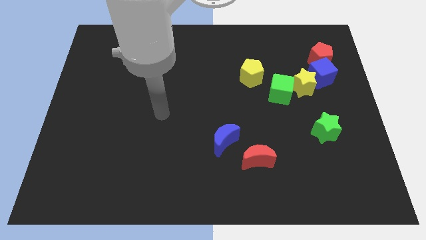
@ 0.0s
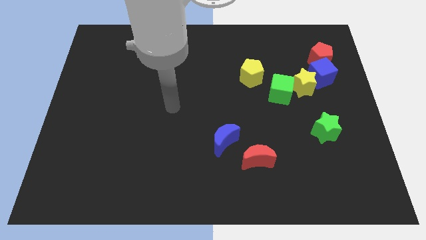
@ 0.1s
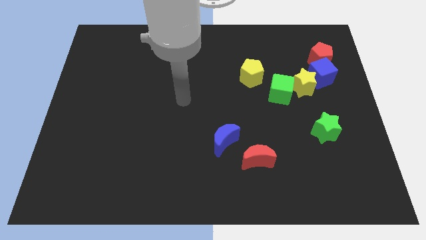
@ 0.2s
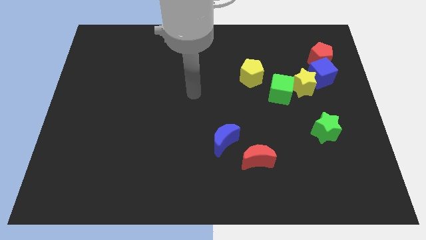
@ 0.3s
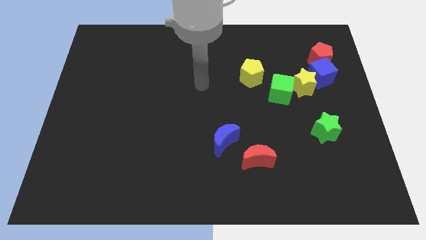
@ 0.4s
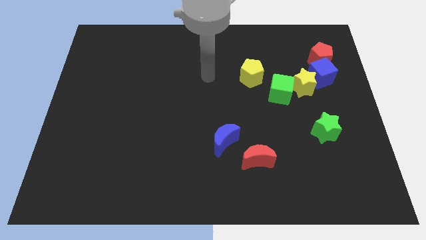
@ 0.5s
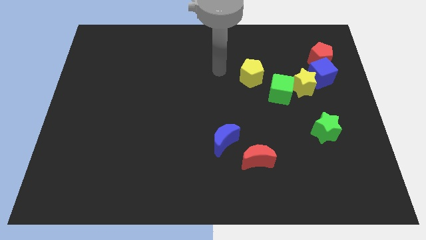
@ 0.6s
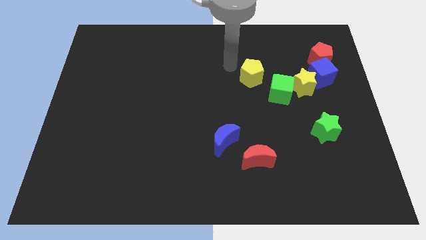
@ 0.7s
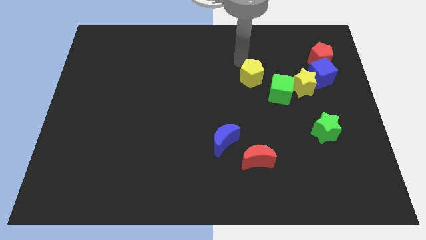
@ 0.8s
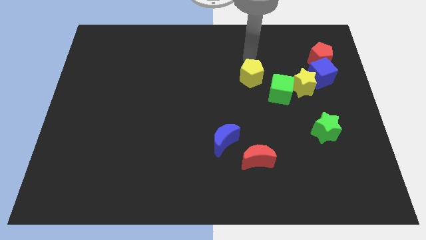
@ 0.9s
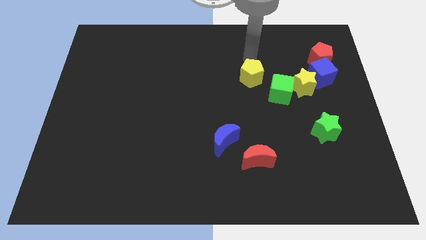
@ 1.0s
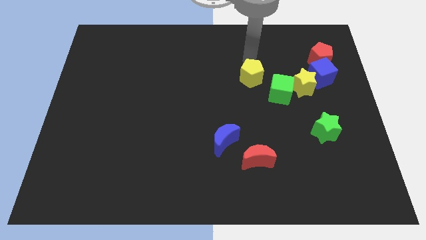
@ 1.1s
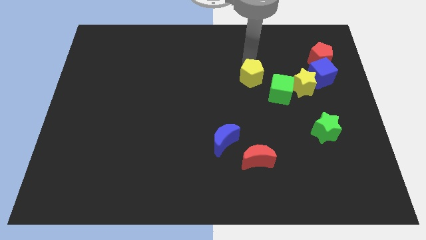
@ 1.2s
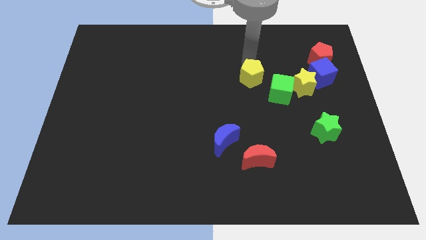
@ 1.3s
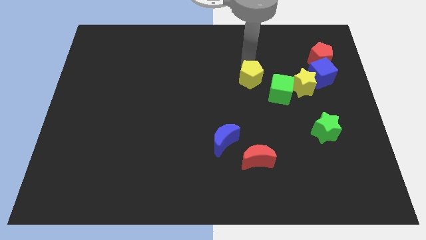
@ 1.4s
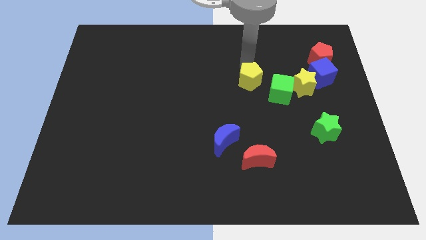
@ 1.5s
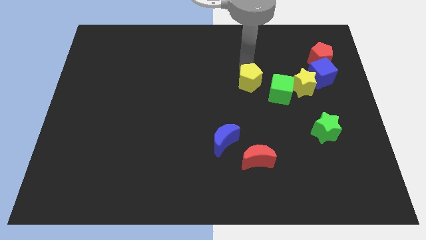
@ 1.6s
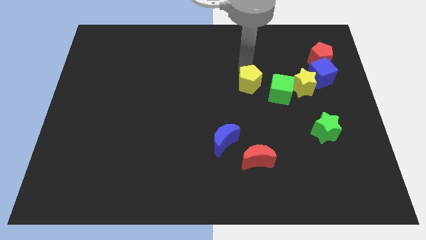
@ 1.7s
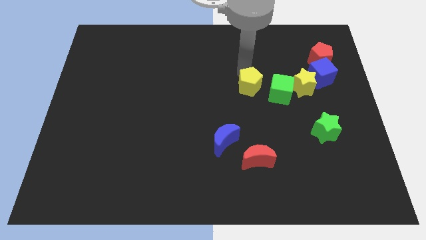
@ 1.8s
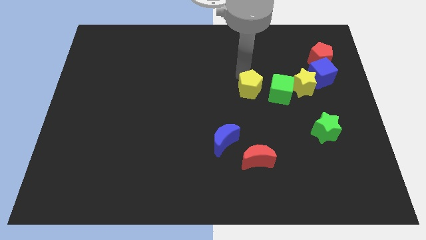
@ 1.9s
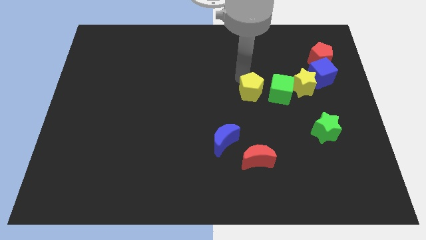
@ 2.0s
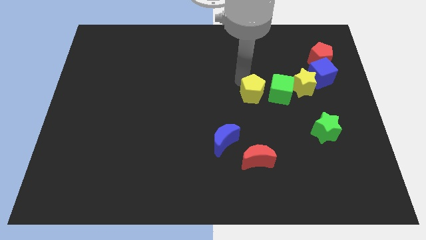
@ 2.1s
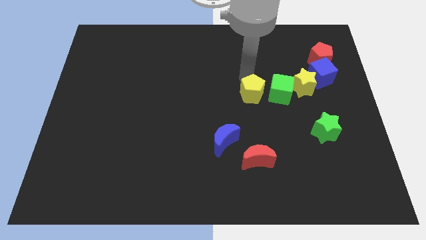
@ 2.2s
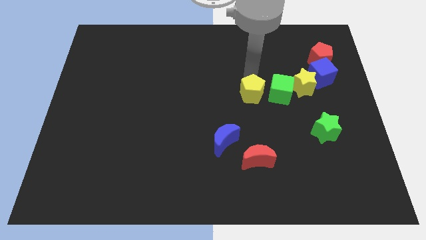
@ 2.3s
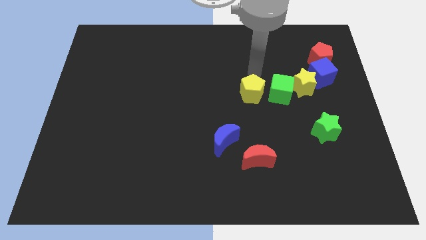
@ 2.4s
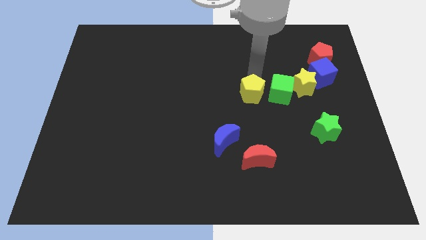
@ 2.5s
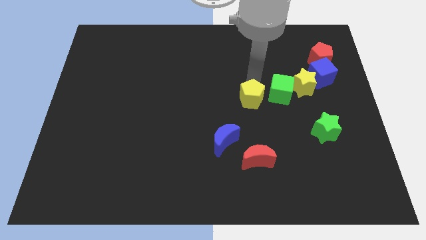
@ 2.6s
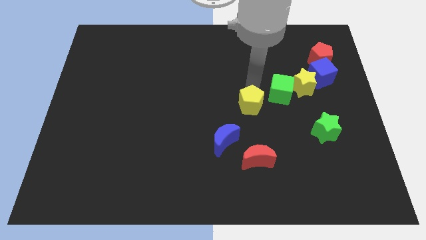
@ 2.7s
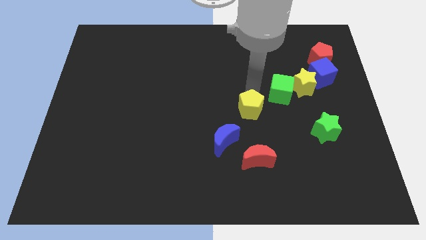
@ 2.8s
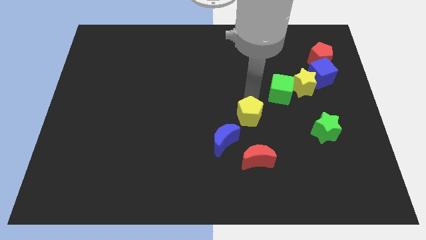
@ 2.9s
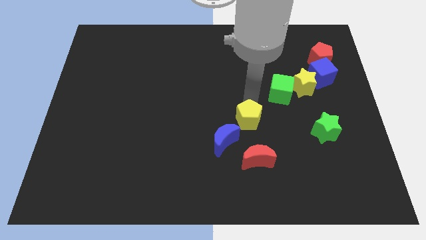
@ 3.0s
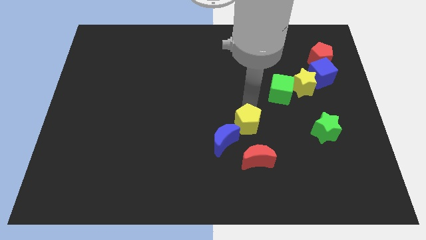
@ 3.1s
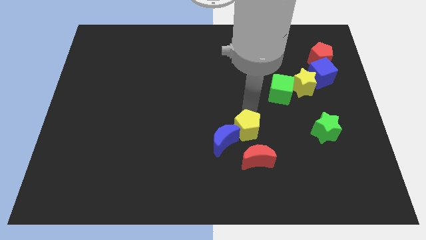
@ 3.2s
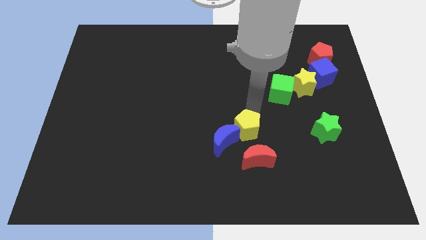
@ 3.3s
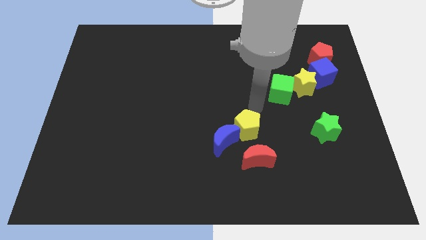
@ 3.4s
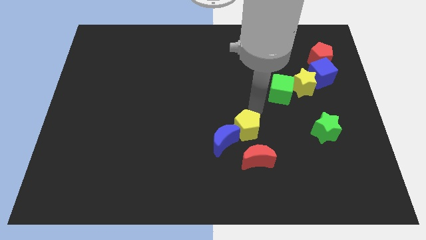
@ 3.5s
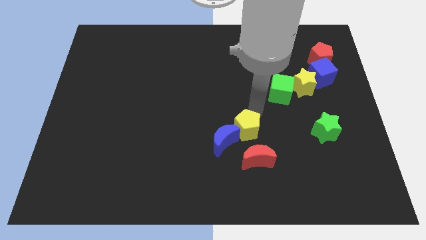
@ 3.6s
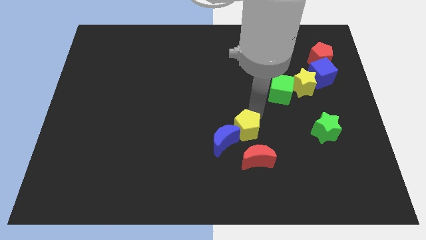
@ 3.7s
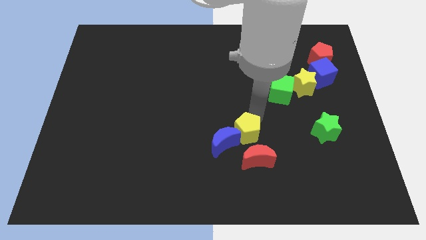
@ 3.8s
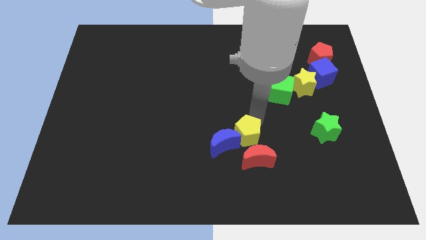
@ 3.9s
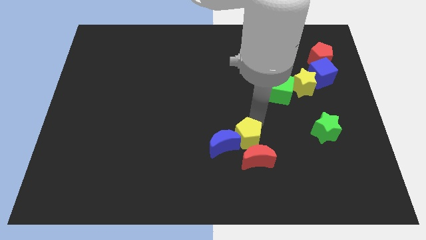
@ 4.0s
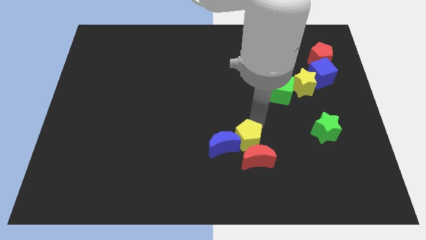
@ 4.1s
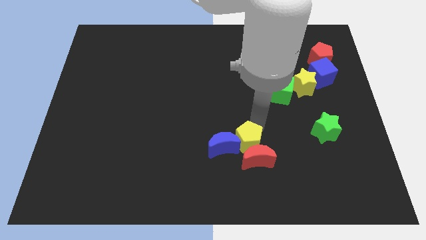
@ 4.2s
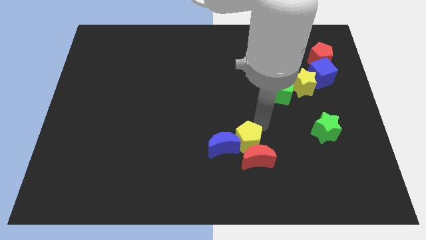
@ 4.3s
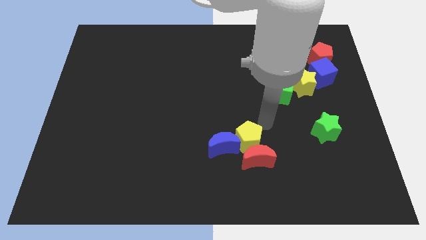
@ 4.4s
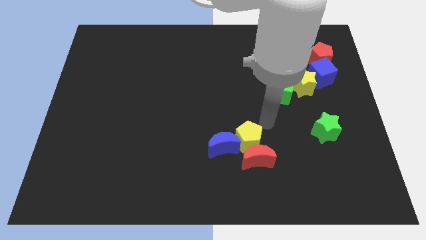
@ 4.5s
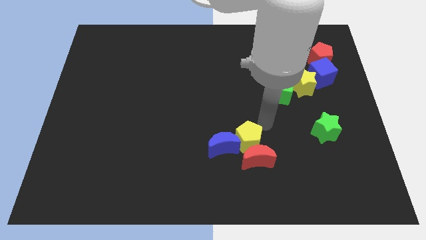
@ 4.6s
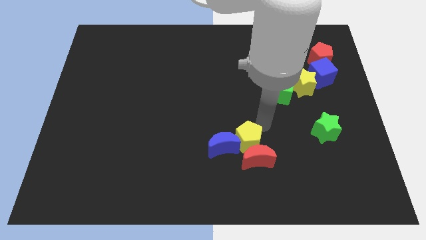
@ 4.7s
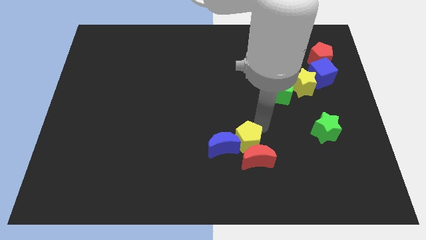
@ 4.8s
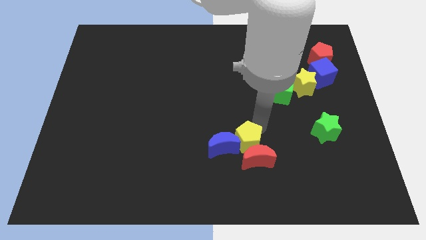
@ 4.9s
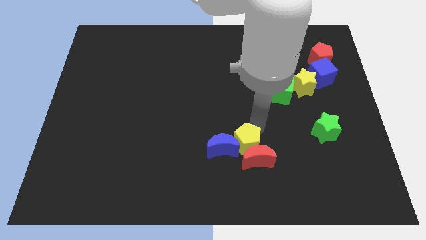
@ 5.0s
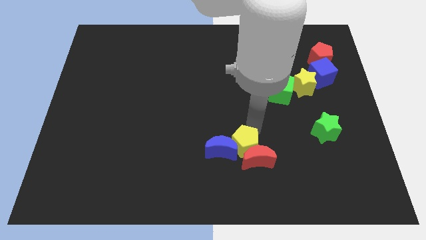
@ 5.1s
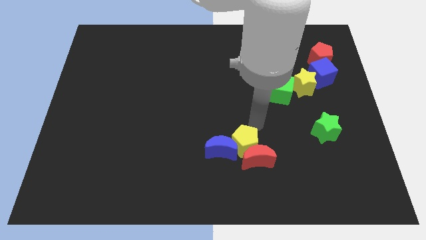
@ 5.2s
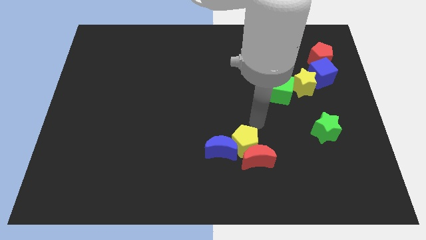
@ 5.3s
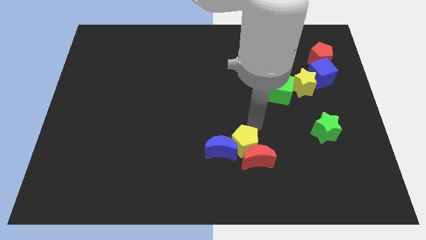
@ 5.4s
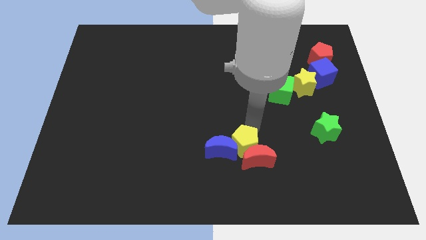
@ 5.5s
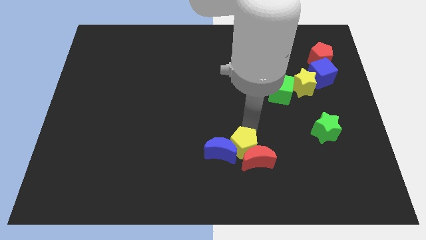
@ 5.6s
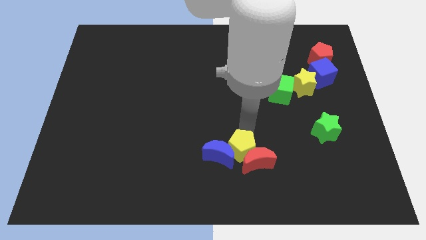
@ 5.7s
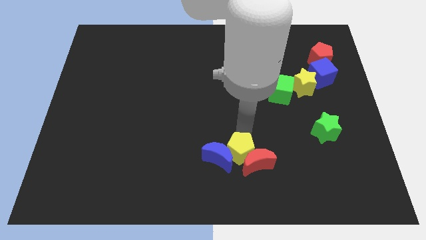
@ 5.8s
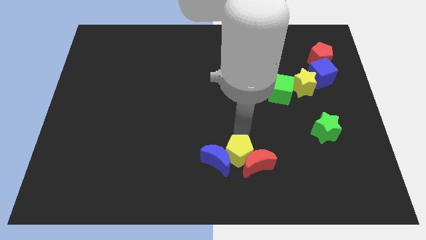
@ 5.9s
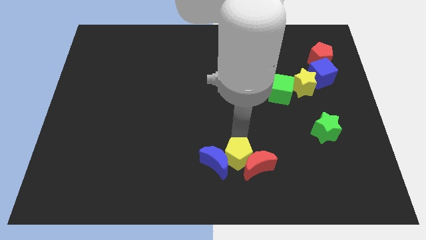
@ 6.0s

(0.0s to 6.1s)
put the yellow pentagon to the bottom
